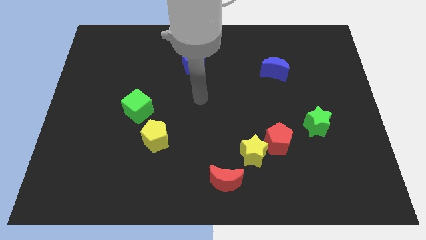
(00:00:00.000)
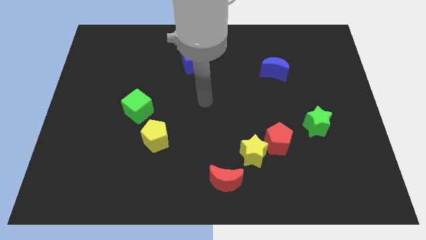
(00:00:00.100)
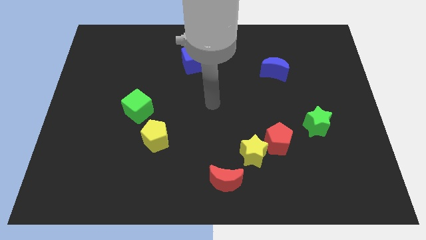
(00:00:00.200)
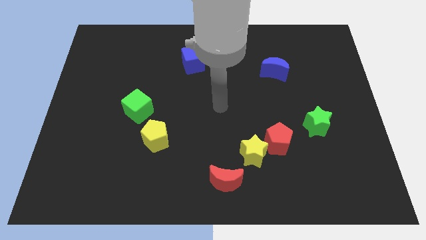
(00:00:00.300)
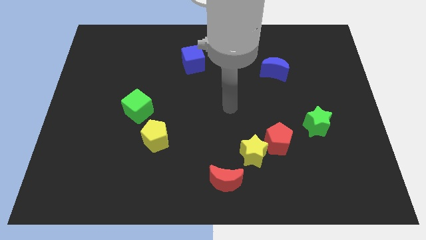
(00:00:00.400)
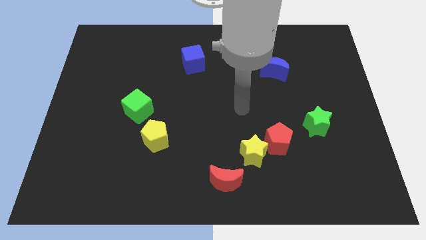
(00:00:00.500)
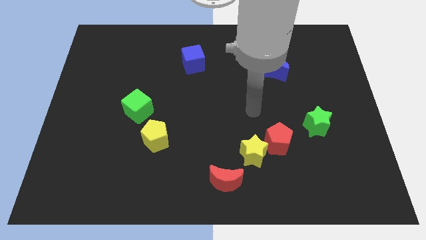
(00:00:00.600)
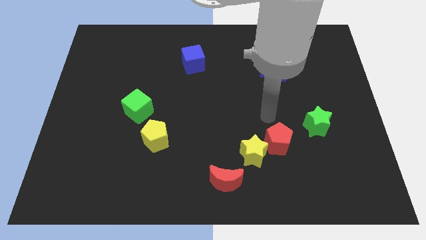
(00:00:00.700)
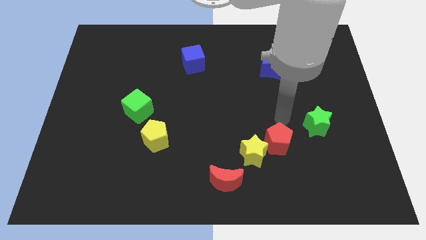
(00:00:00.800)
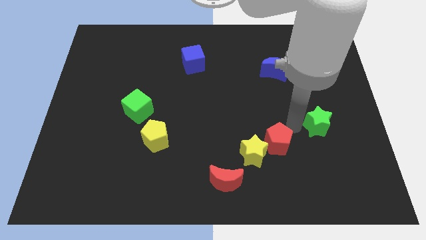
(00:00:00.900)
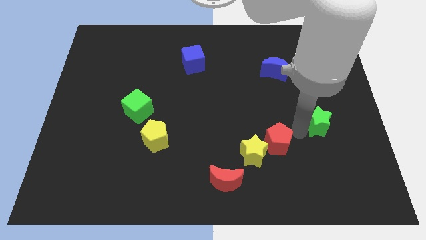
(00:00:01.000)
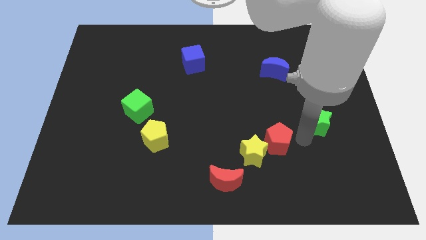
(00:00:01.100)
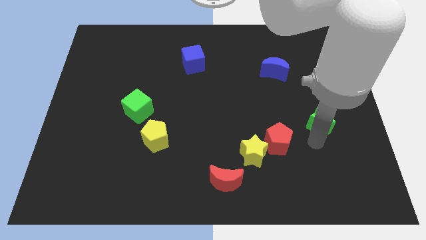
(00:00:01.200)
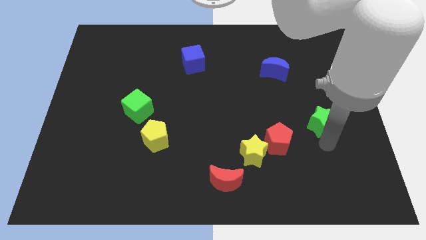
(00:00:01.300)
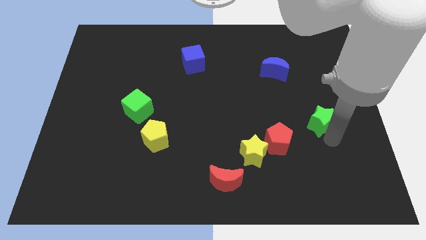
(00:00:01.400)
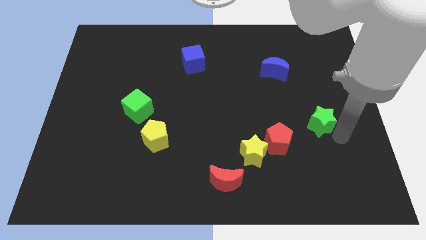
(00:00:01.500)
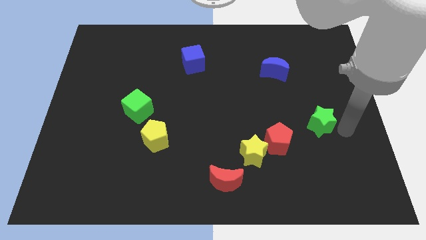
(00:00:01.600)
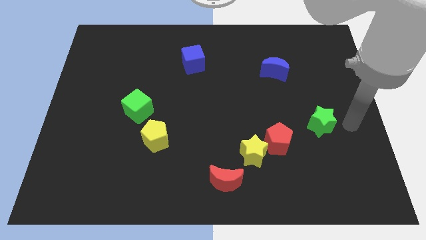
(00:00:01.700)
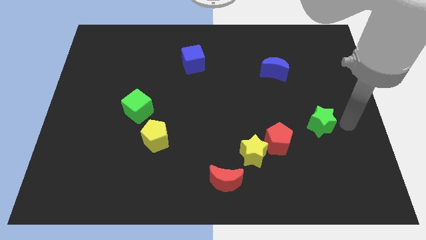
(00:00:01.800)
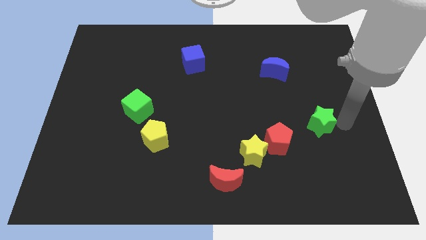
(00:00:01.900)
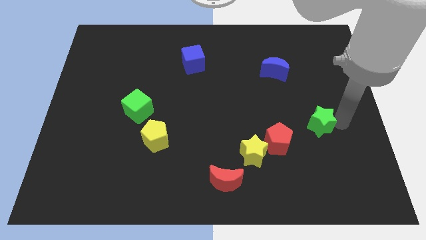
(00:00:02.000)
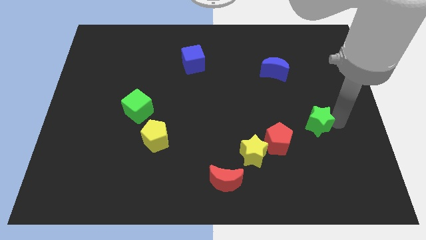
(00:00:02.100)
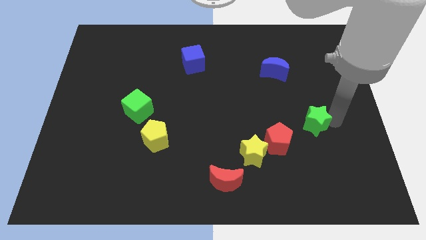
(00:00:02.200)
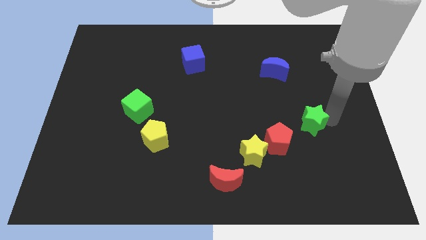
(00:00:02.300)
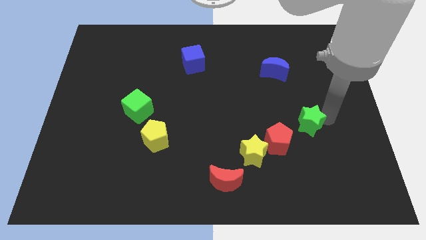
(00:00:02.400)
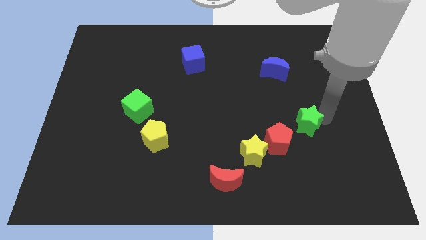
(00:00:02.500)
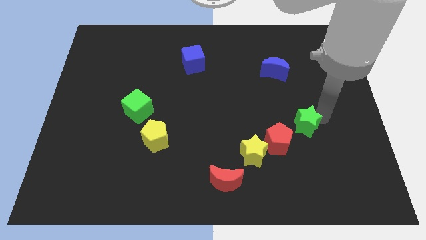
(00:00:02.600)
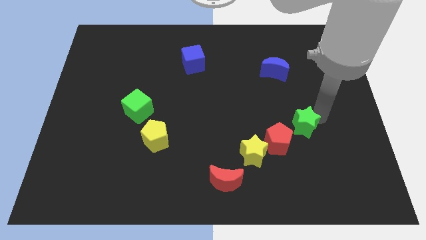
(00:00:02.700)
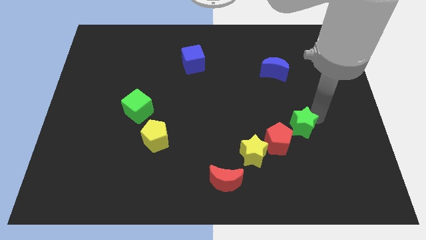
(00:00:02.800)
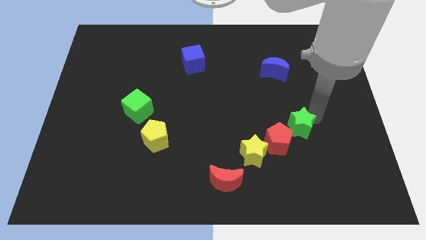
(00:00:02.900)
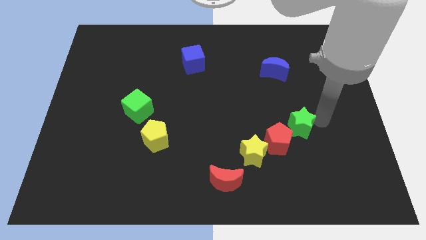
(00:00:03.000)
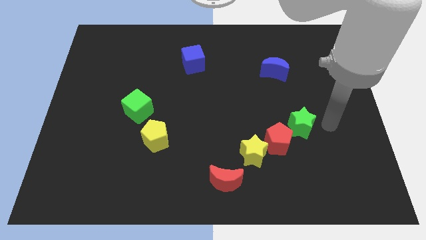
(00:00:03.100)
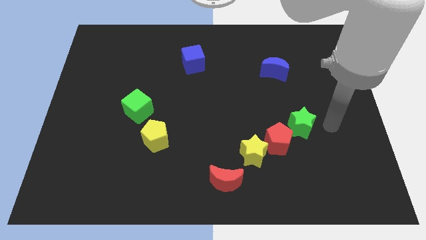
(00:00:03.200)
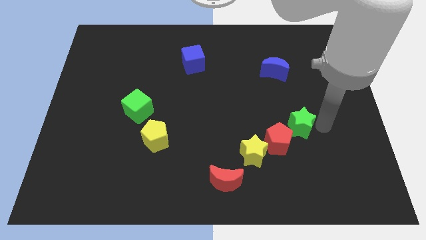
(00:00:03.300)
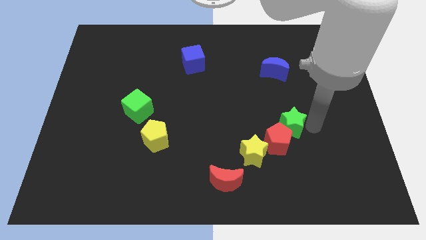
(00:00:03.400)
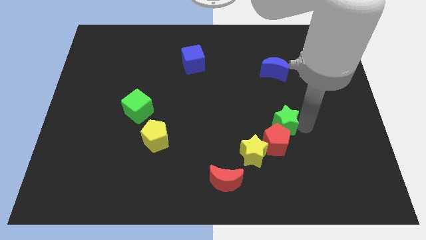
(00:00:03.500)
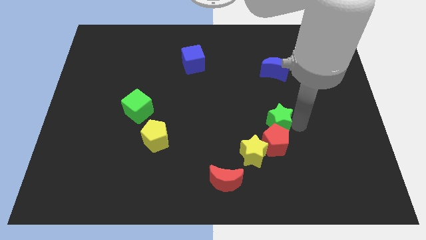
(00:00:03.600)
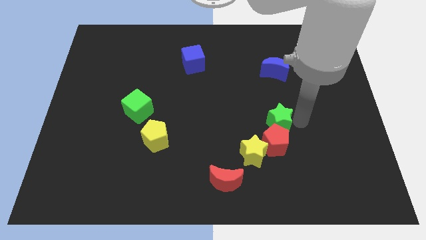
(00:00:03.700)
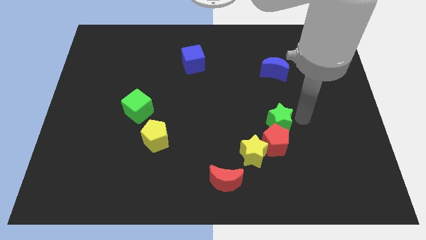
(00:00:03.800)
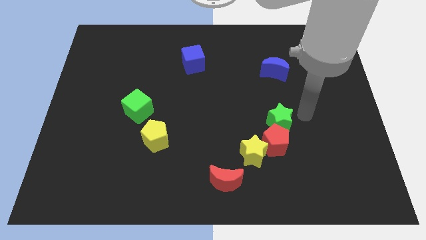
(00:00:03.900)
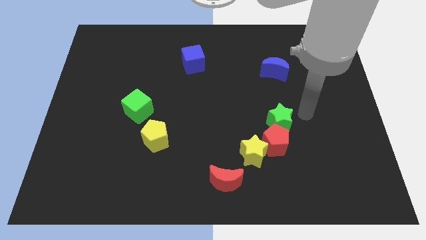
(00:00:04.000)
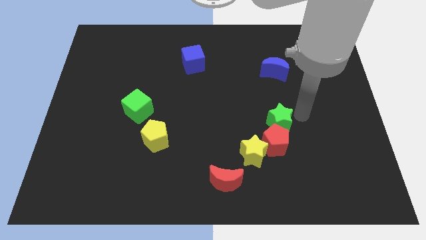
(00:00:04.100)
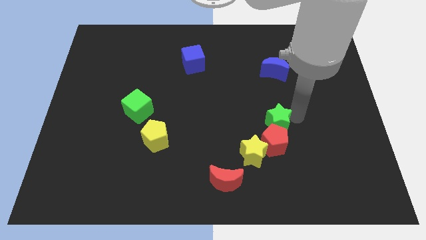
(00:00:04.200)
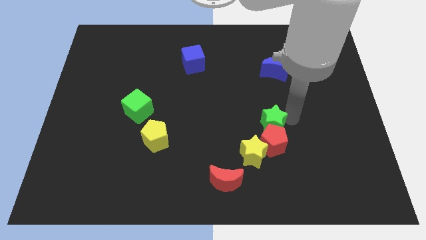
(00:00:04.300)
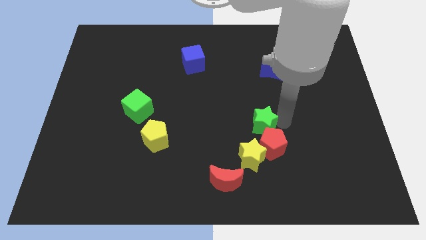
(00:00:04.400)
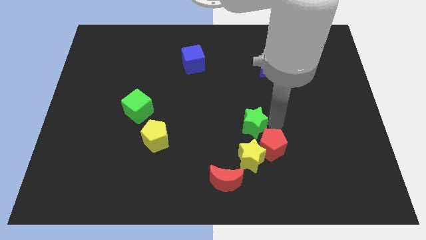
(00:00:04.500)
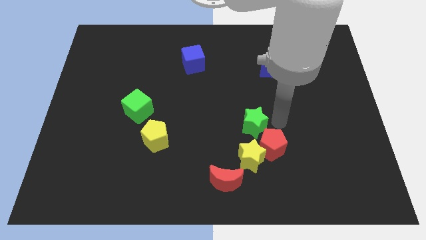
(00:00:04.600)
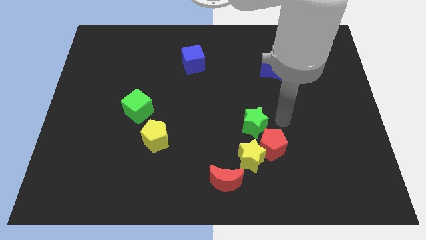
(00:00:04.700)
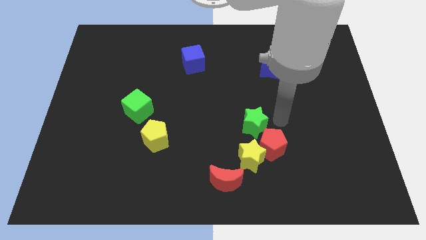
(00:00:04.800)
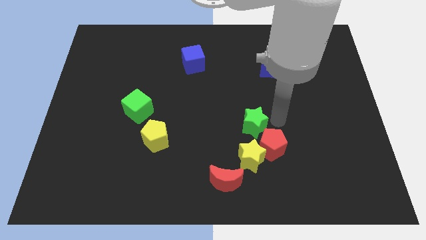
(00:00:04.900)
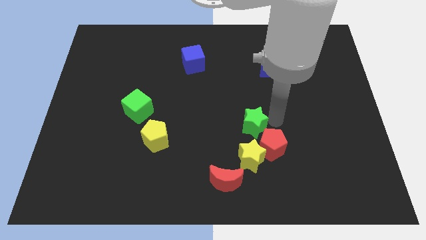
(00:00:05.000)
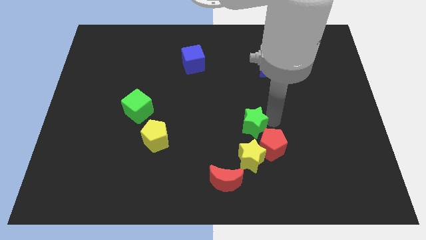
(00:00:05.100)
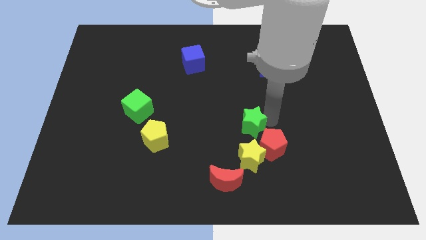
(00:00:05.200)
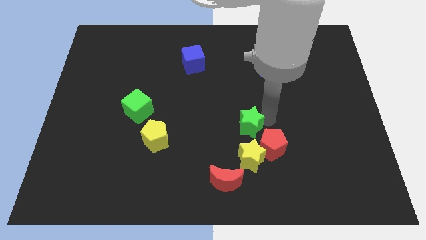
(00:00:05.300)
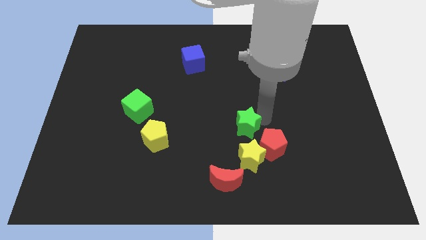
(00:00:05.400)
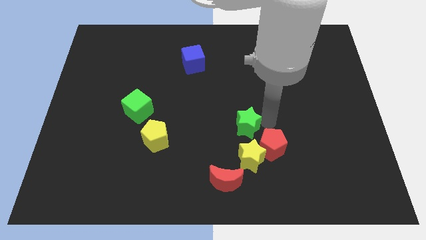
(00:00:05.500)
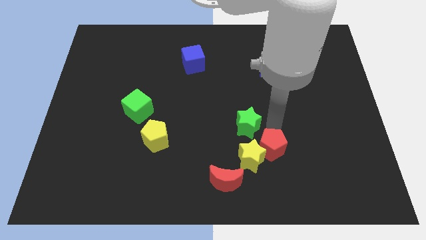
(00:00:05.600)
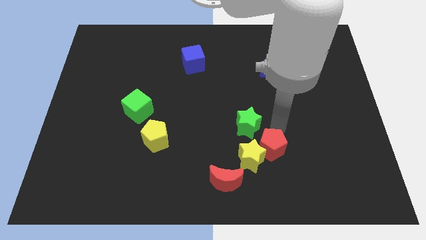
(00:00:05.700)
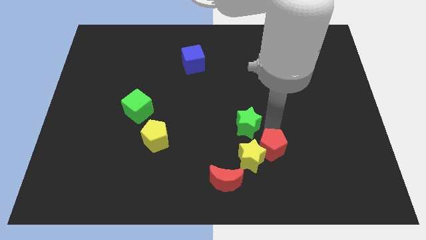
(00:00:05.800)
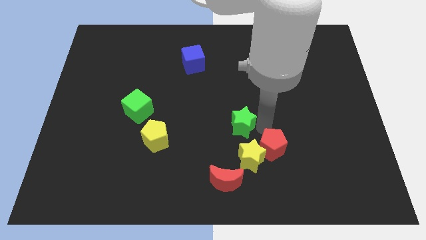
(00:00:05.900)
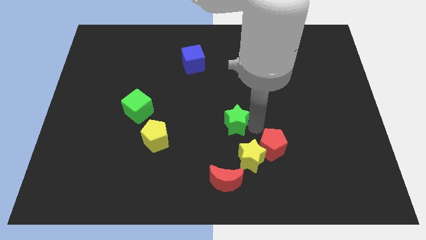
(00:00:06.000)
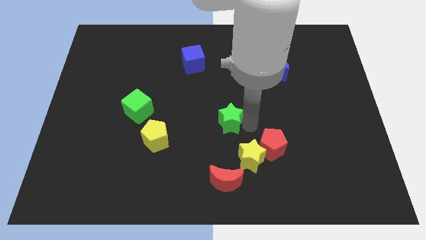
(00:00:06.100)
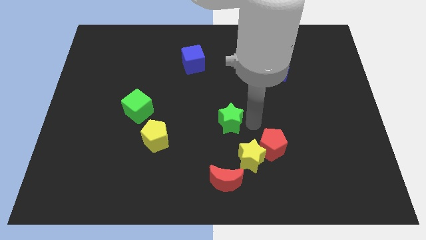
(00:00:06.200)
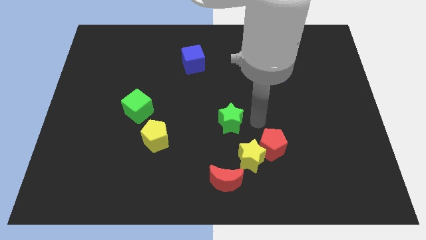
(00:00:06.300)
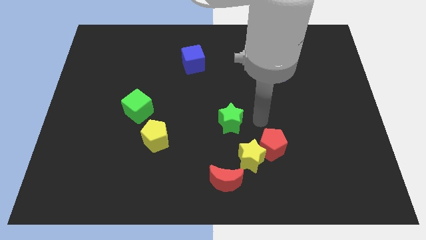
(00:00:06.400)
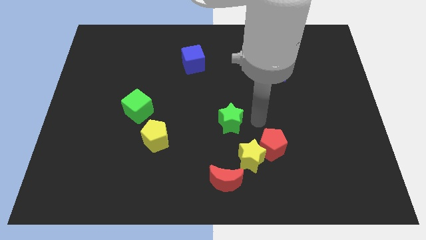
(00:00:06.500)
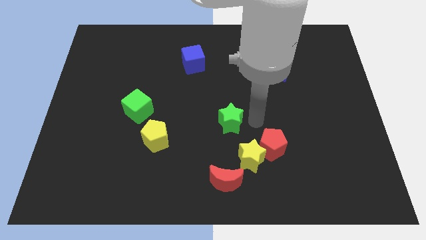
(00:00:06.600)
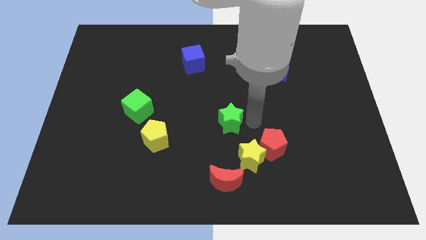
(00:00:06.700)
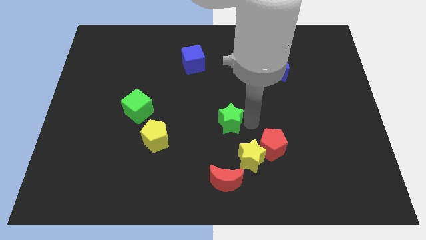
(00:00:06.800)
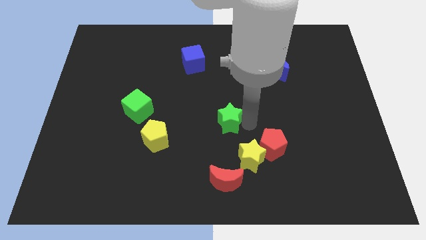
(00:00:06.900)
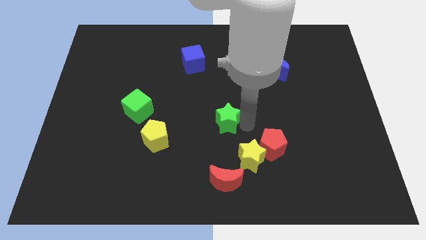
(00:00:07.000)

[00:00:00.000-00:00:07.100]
move the green star left

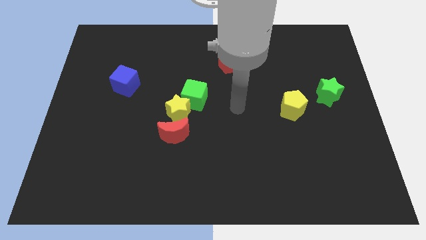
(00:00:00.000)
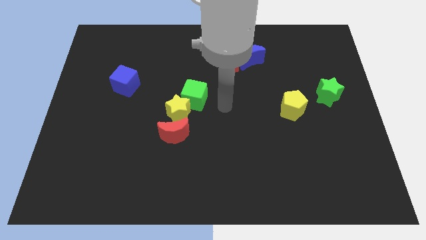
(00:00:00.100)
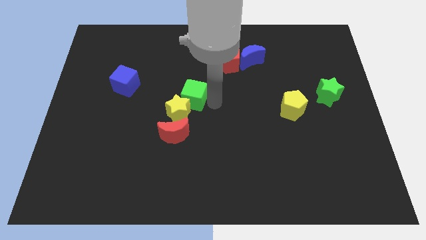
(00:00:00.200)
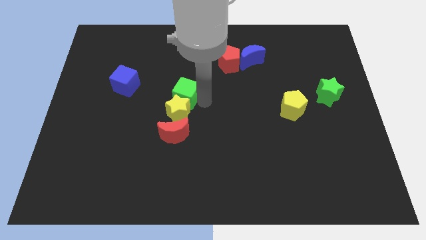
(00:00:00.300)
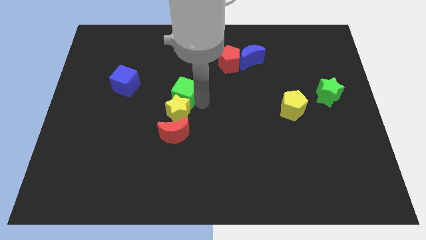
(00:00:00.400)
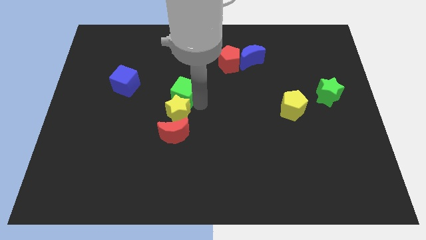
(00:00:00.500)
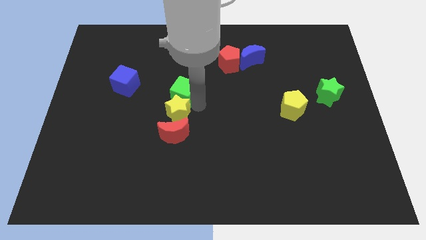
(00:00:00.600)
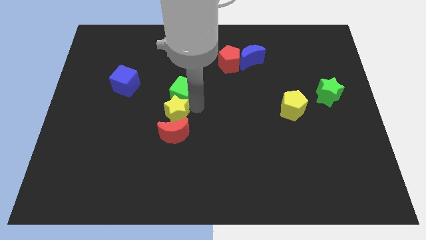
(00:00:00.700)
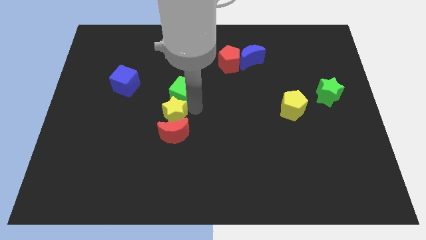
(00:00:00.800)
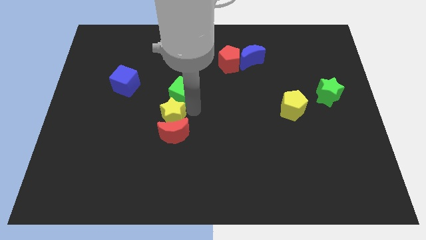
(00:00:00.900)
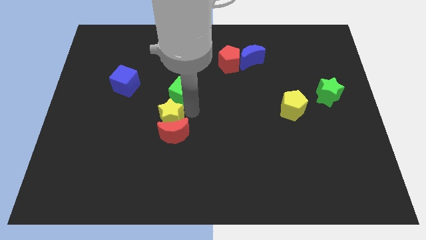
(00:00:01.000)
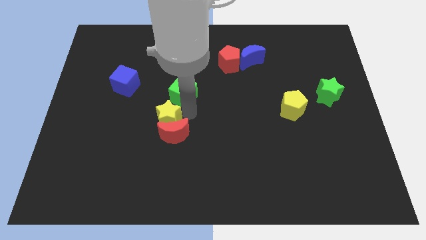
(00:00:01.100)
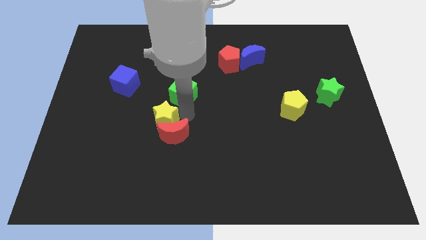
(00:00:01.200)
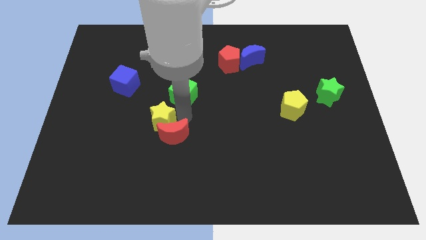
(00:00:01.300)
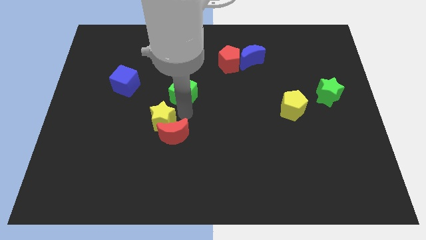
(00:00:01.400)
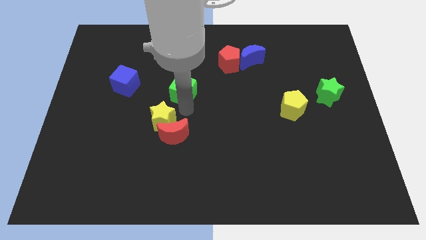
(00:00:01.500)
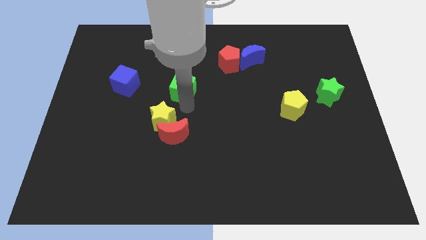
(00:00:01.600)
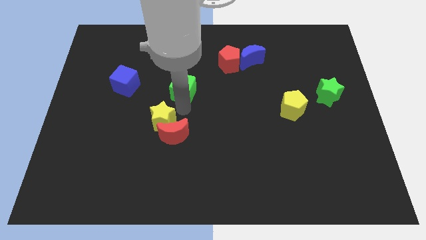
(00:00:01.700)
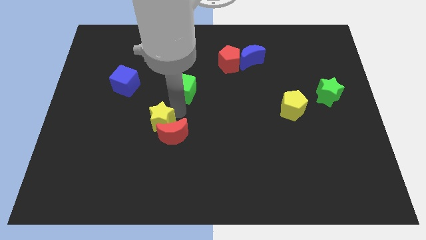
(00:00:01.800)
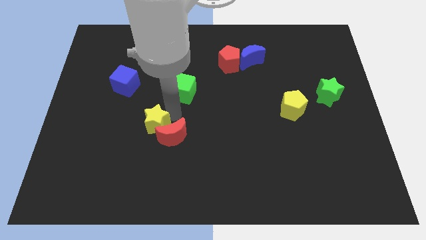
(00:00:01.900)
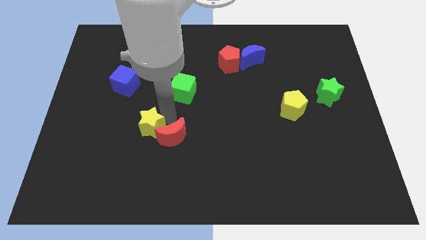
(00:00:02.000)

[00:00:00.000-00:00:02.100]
slightly slide the yellow star down and left diagonally
